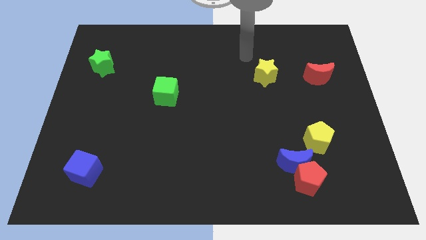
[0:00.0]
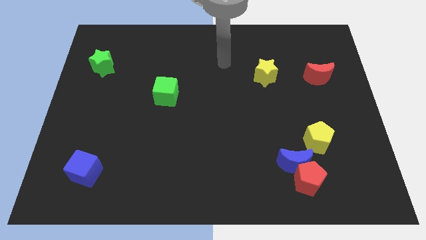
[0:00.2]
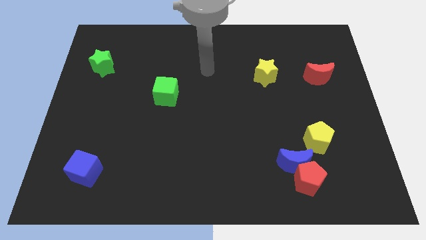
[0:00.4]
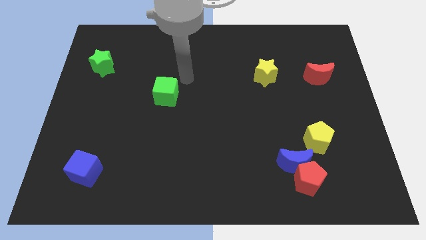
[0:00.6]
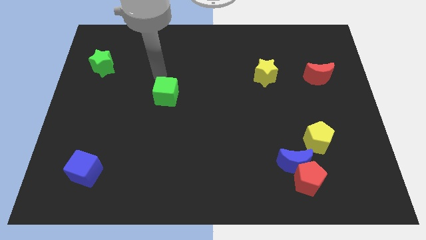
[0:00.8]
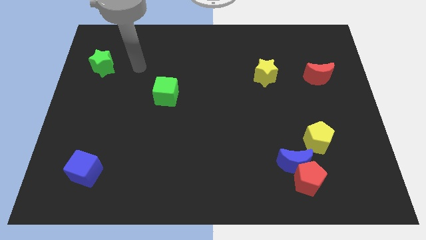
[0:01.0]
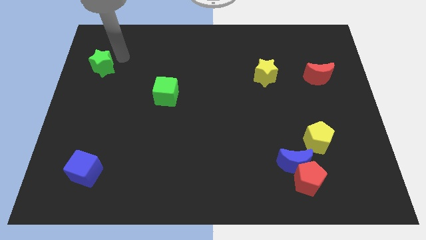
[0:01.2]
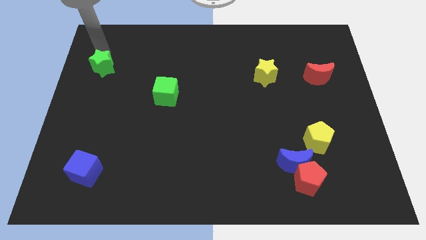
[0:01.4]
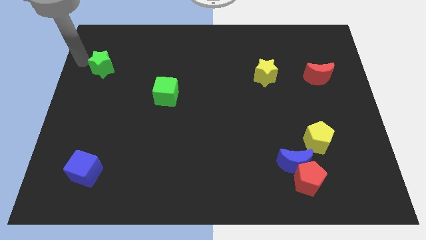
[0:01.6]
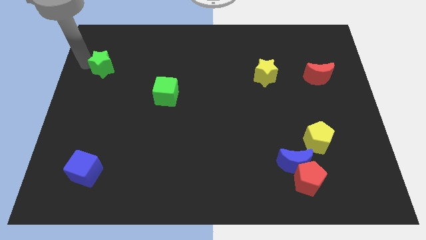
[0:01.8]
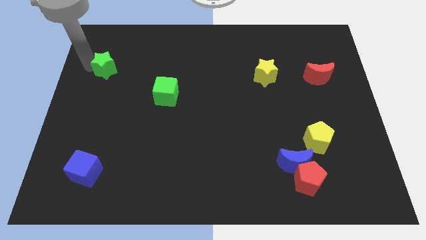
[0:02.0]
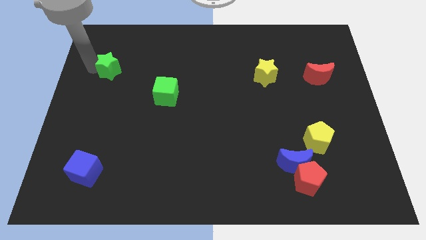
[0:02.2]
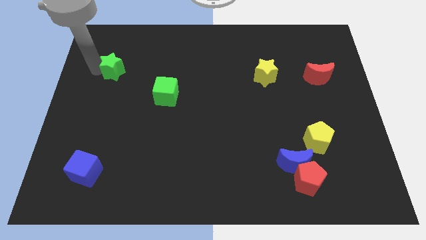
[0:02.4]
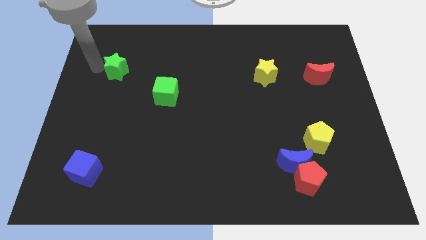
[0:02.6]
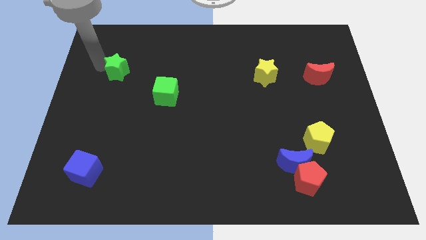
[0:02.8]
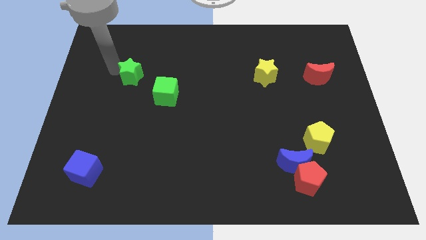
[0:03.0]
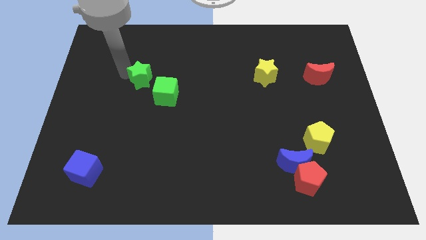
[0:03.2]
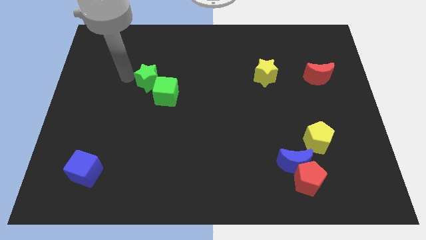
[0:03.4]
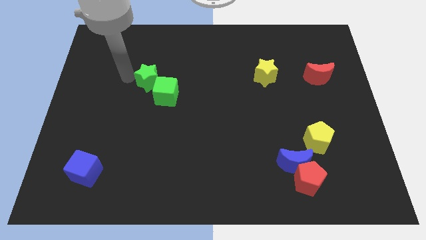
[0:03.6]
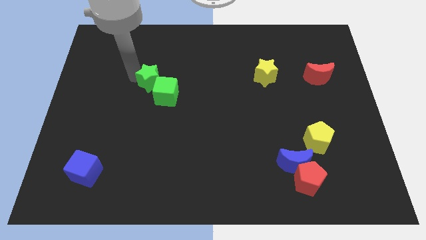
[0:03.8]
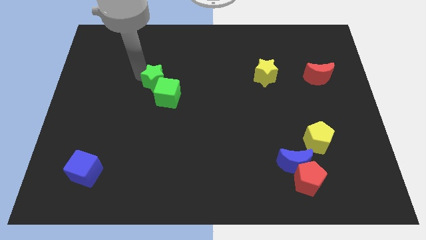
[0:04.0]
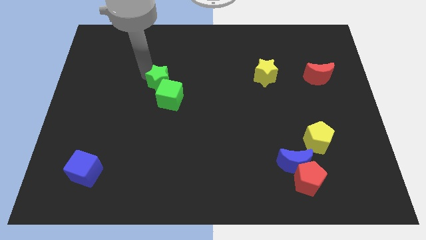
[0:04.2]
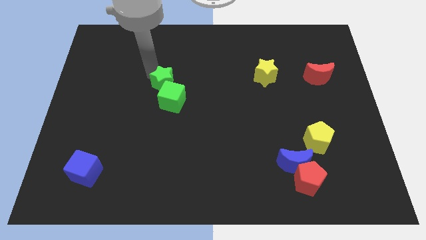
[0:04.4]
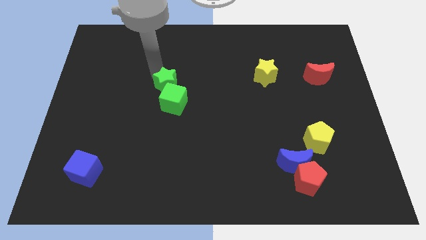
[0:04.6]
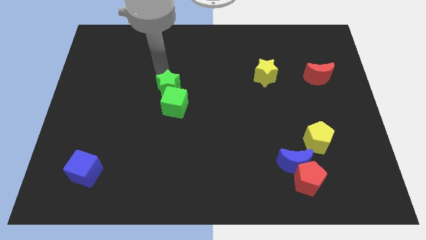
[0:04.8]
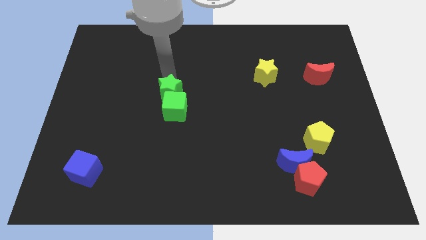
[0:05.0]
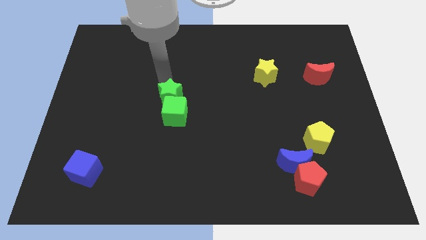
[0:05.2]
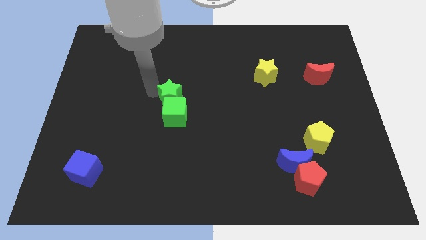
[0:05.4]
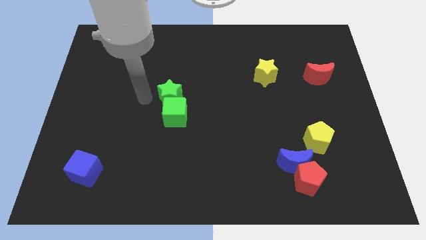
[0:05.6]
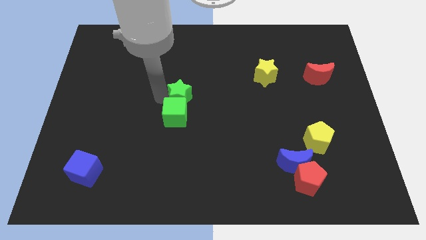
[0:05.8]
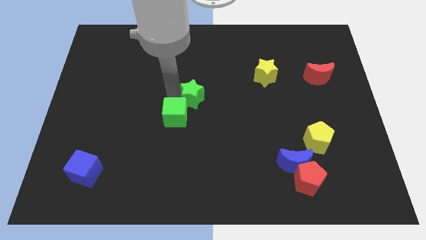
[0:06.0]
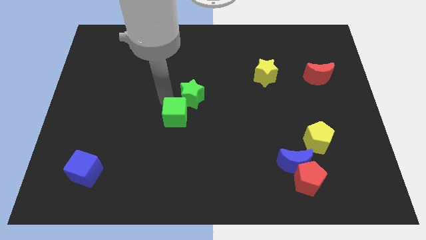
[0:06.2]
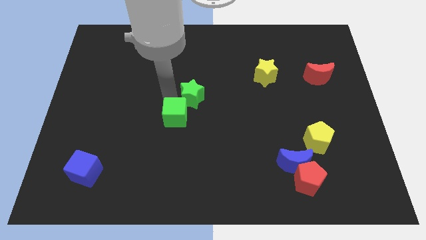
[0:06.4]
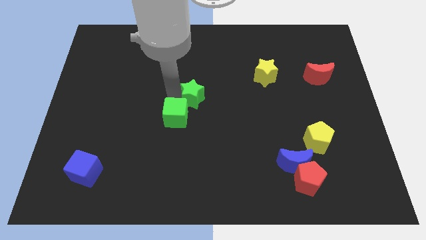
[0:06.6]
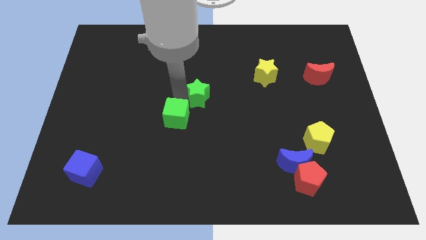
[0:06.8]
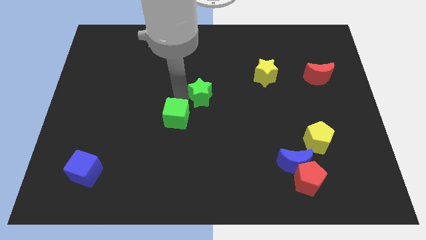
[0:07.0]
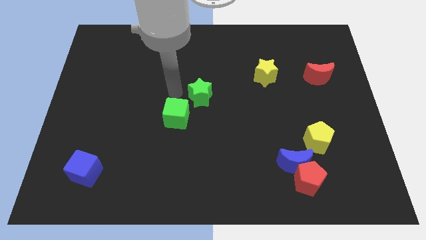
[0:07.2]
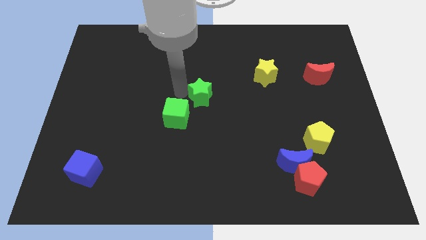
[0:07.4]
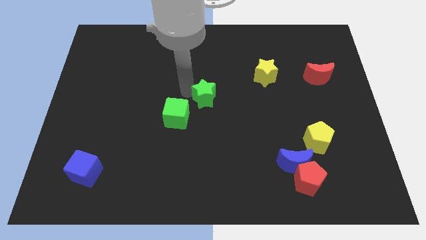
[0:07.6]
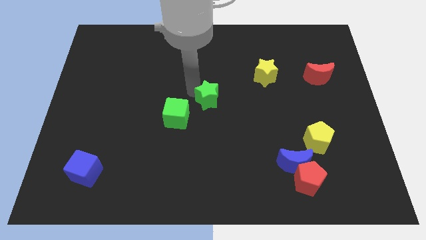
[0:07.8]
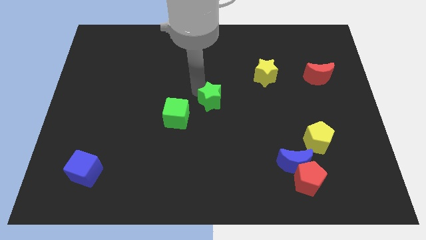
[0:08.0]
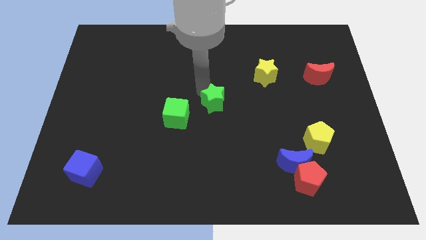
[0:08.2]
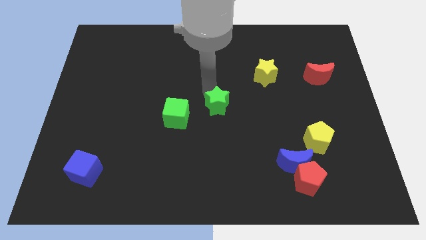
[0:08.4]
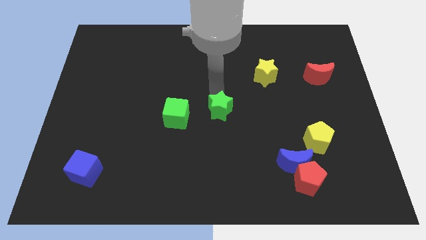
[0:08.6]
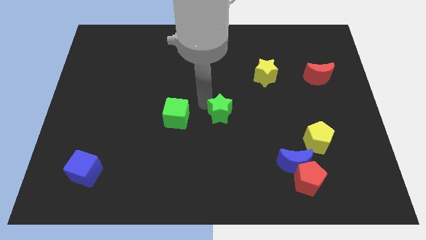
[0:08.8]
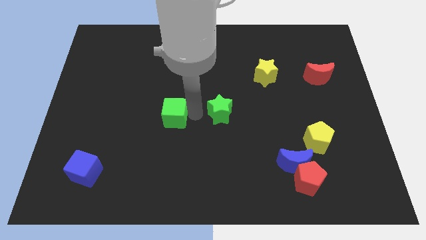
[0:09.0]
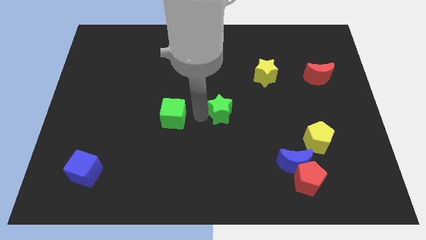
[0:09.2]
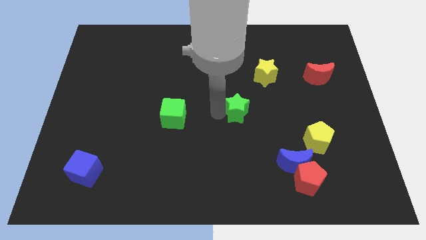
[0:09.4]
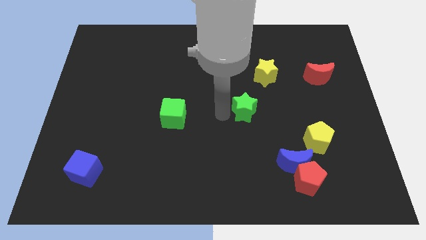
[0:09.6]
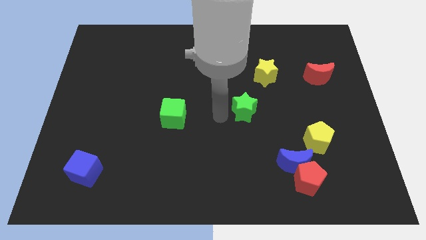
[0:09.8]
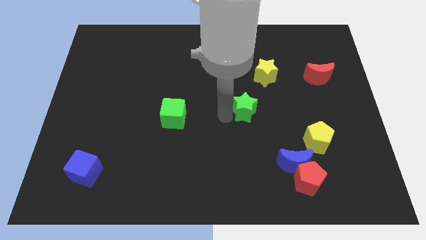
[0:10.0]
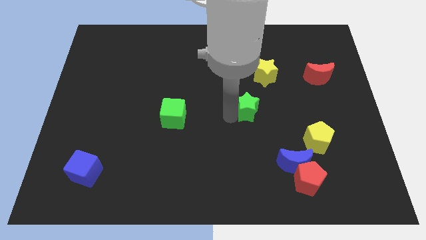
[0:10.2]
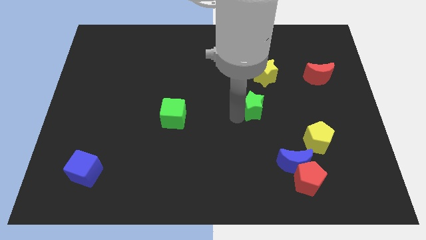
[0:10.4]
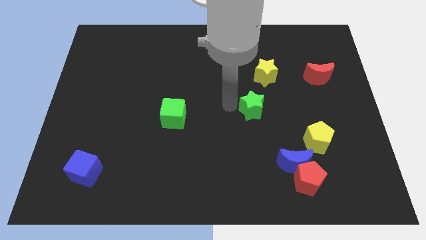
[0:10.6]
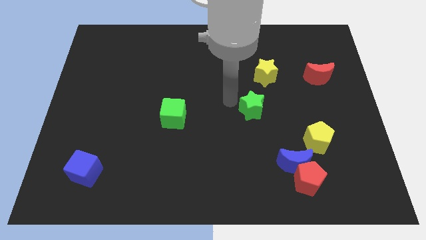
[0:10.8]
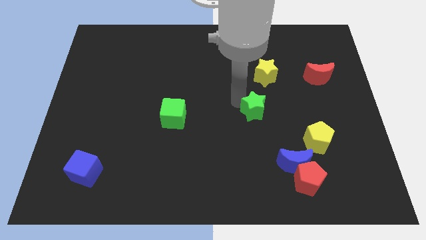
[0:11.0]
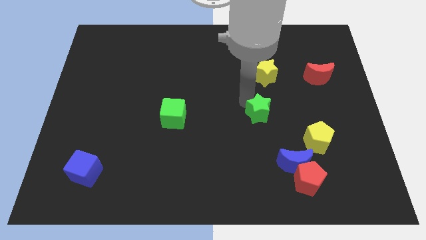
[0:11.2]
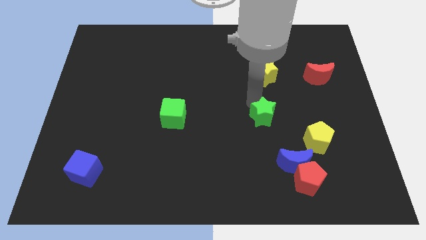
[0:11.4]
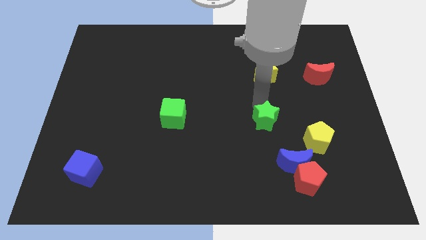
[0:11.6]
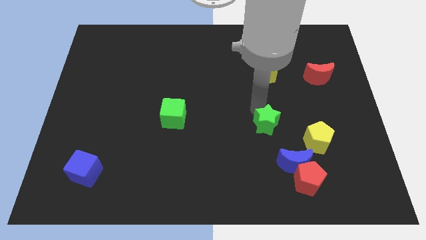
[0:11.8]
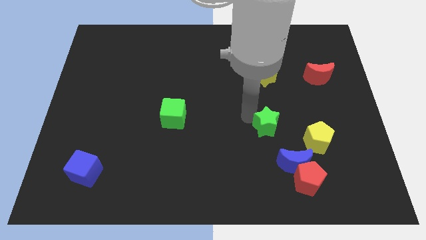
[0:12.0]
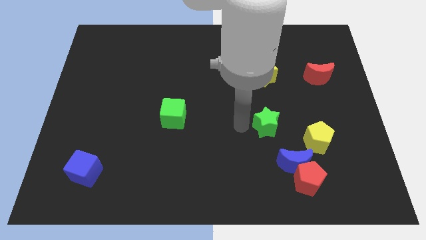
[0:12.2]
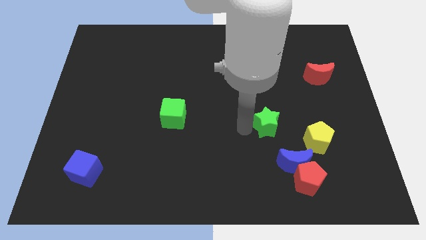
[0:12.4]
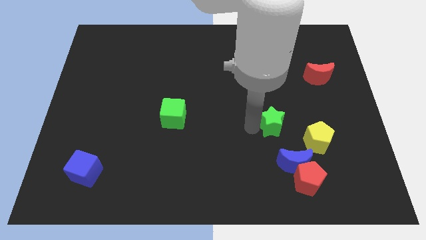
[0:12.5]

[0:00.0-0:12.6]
move the green star diagonally up and to the left of the yellow pentagon
